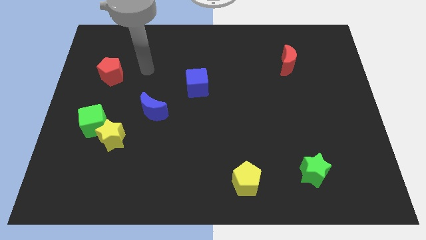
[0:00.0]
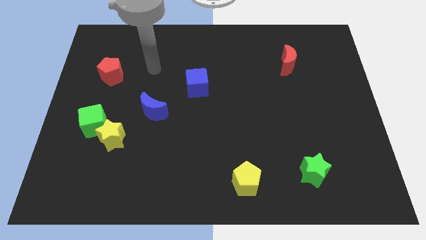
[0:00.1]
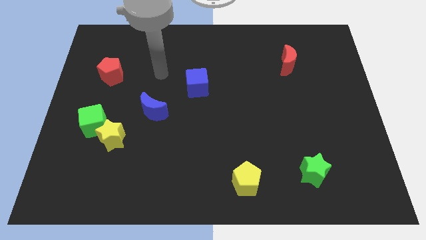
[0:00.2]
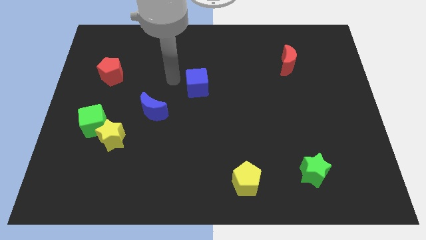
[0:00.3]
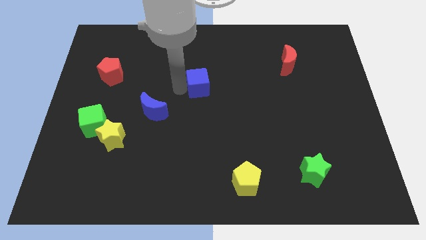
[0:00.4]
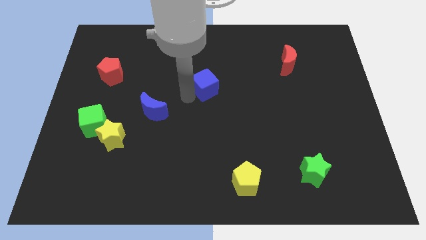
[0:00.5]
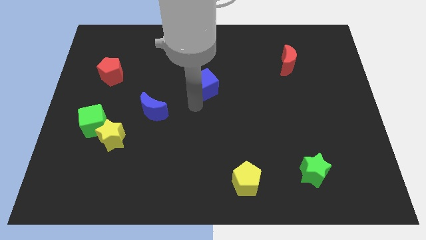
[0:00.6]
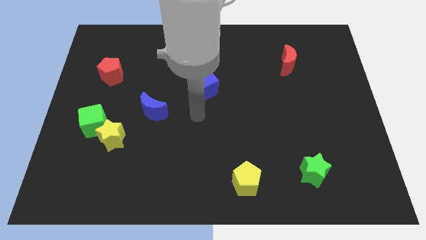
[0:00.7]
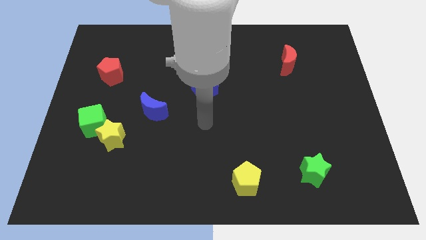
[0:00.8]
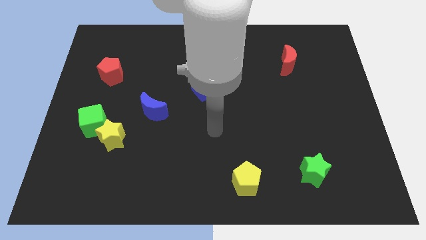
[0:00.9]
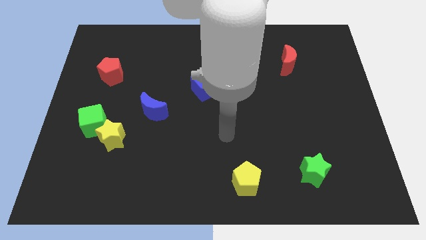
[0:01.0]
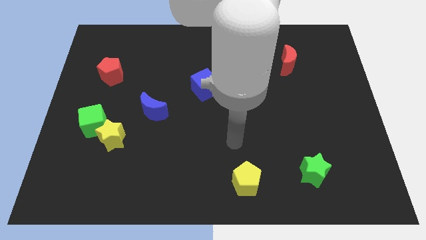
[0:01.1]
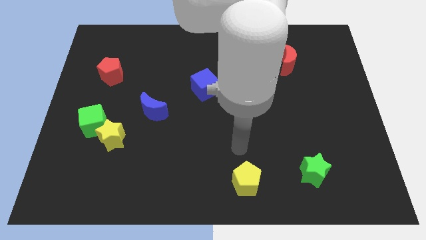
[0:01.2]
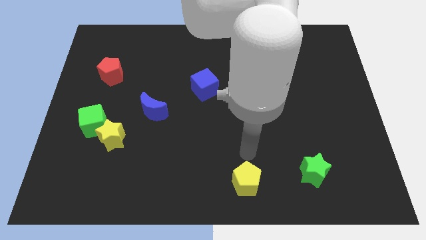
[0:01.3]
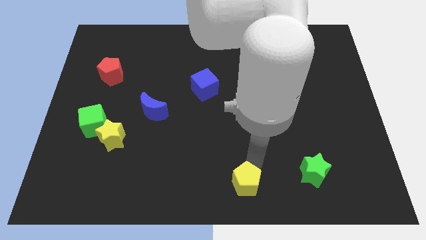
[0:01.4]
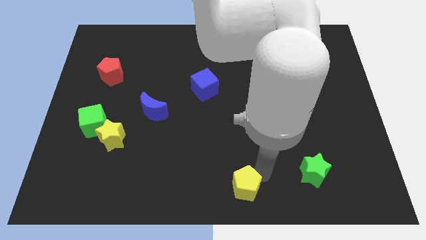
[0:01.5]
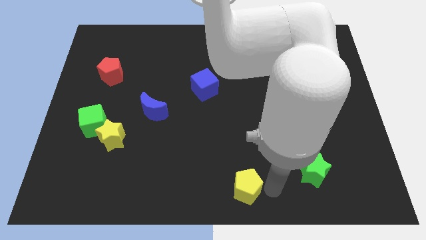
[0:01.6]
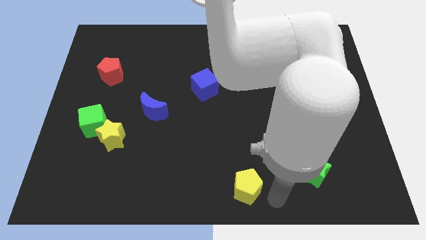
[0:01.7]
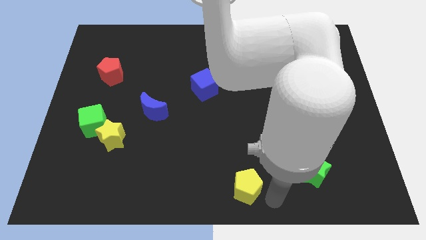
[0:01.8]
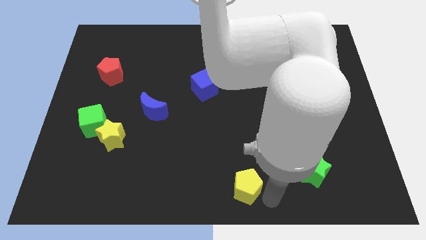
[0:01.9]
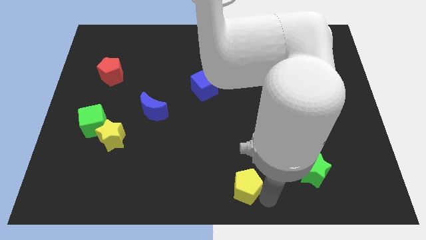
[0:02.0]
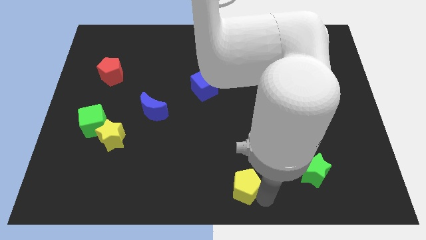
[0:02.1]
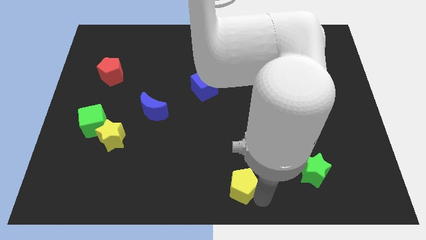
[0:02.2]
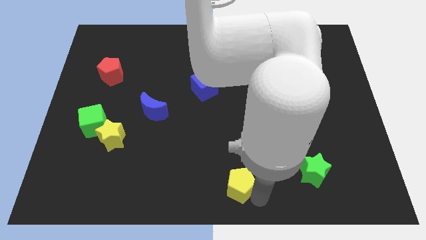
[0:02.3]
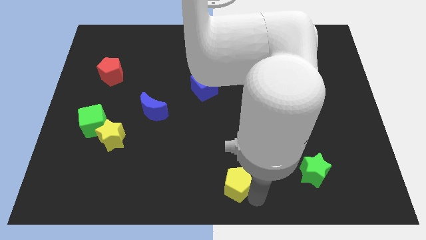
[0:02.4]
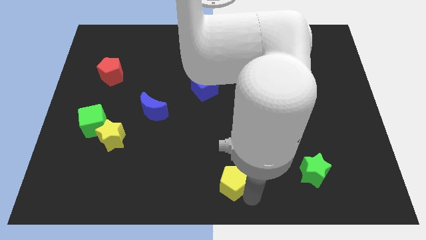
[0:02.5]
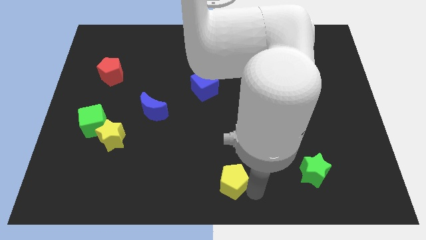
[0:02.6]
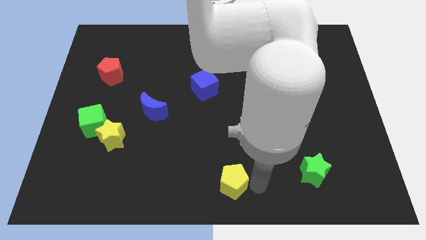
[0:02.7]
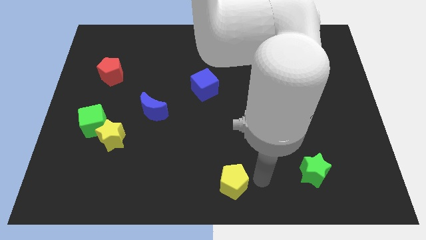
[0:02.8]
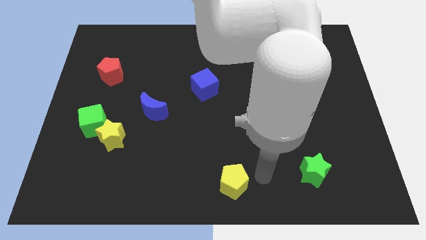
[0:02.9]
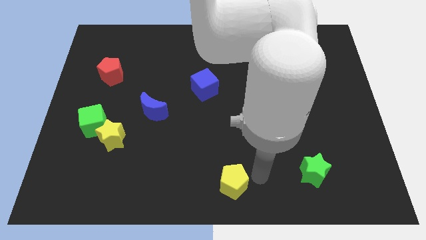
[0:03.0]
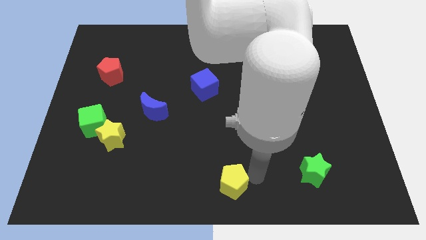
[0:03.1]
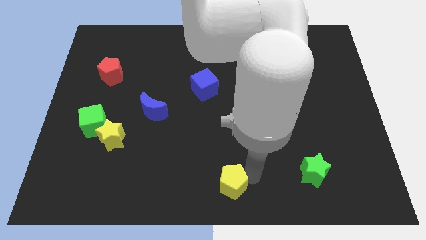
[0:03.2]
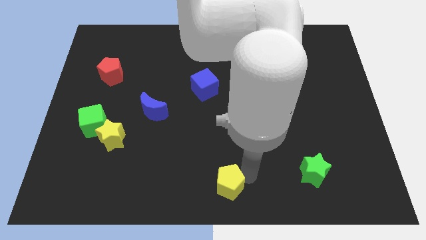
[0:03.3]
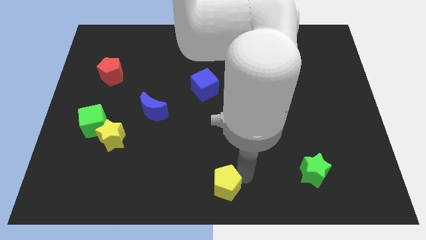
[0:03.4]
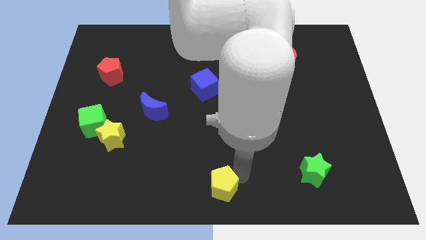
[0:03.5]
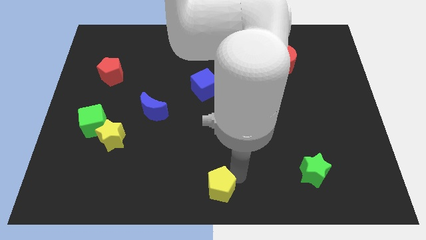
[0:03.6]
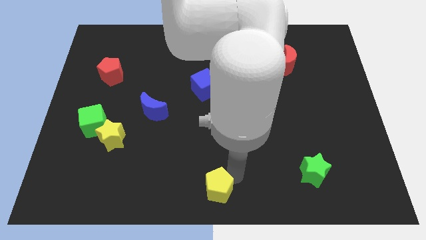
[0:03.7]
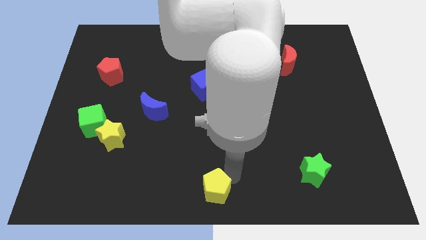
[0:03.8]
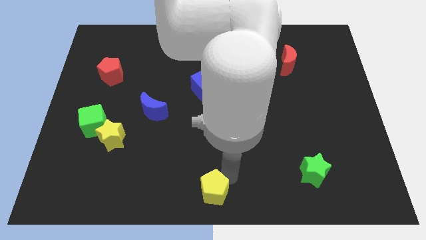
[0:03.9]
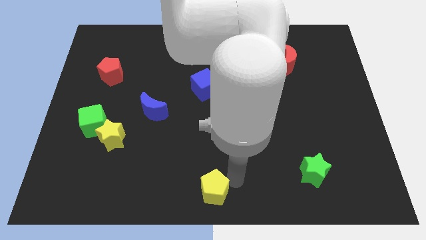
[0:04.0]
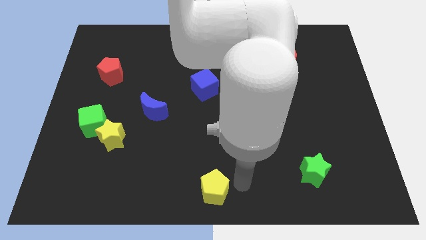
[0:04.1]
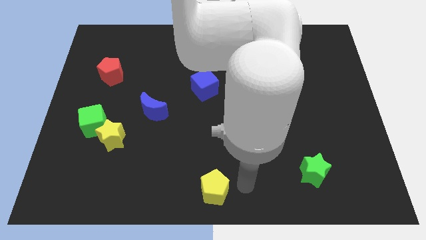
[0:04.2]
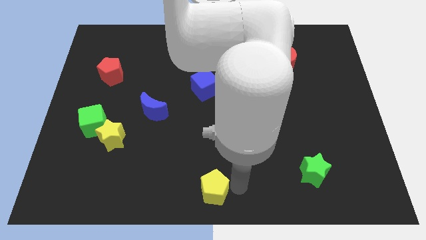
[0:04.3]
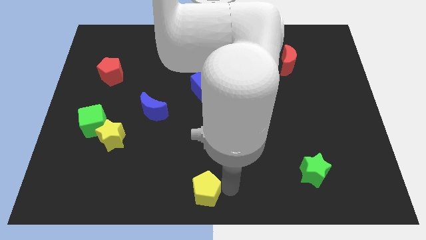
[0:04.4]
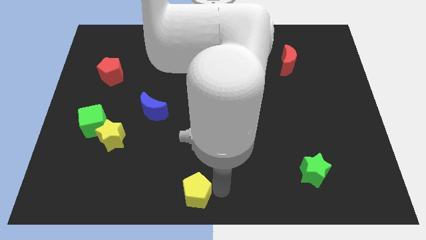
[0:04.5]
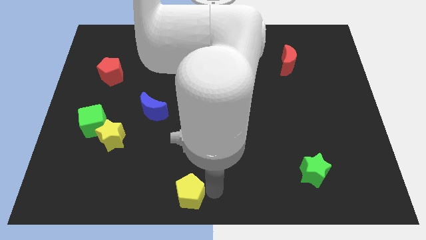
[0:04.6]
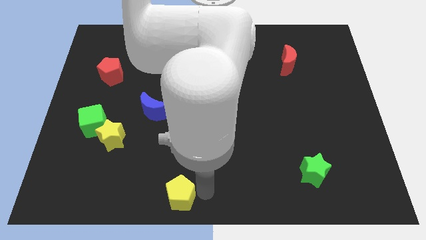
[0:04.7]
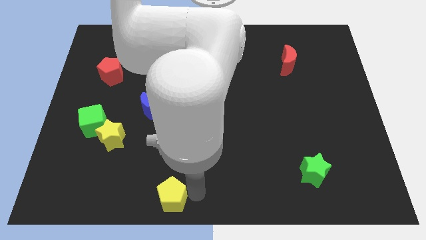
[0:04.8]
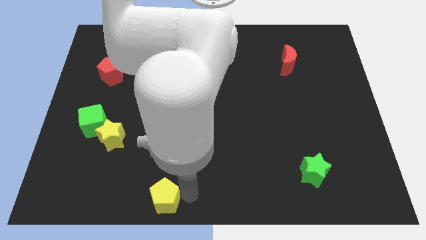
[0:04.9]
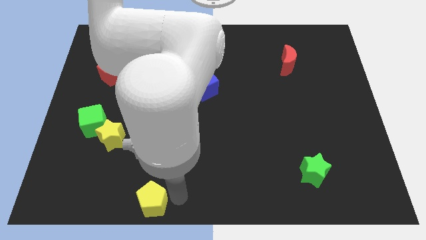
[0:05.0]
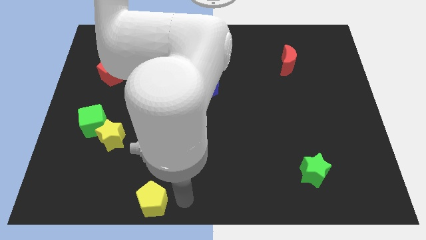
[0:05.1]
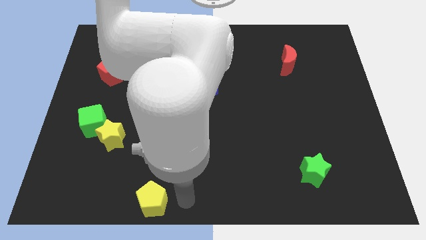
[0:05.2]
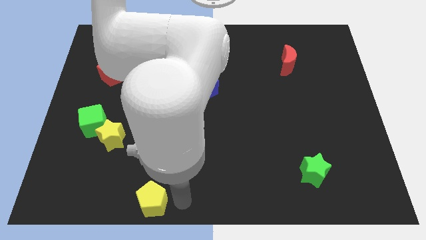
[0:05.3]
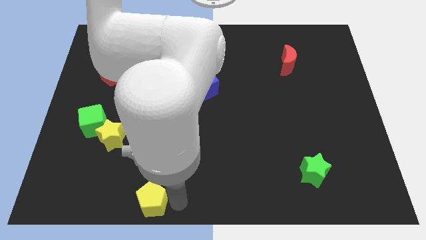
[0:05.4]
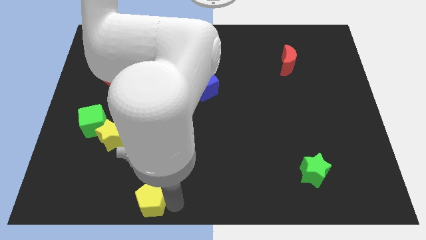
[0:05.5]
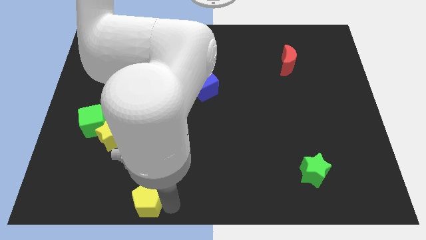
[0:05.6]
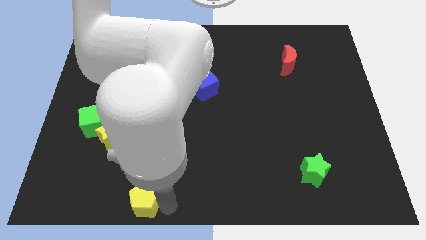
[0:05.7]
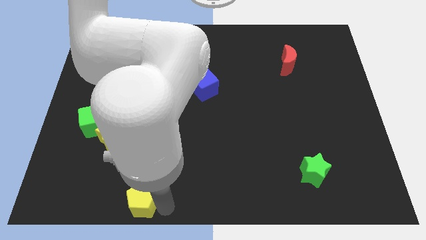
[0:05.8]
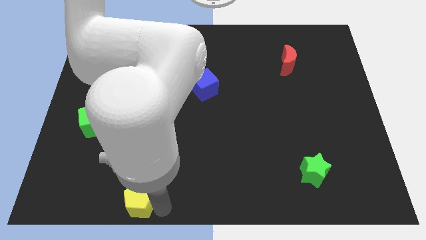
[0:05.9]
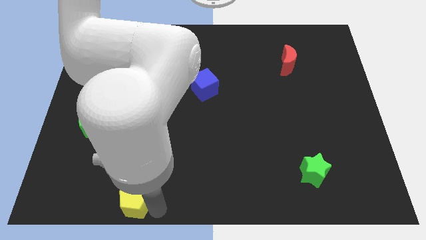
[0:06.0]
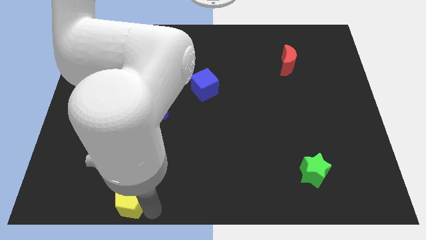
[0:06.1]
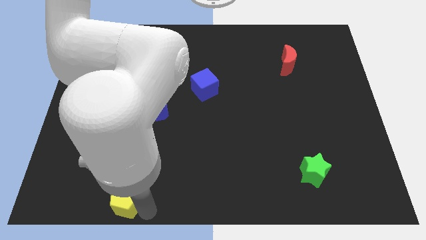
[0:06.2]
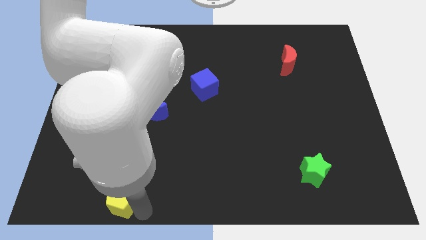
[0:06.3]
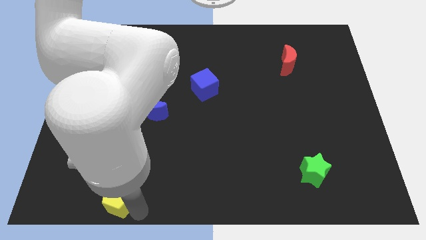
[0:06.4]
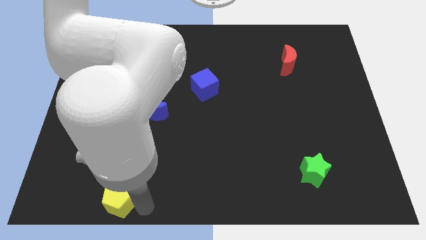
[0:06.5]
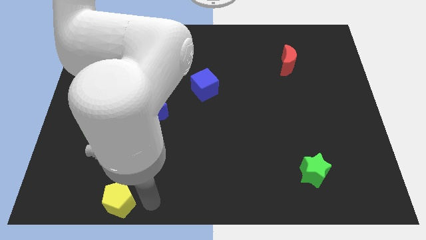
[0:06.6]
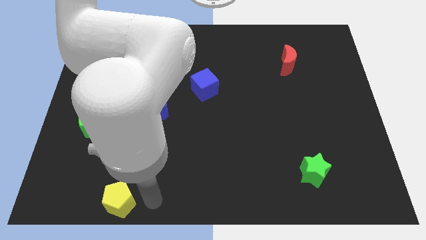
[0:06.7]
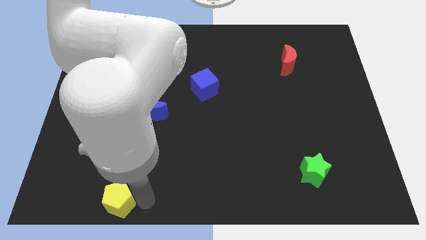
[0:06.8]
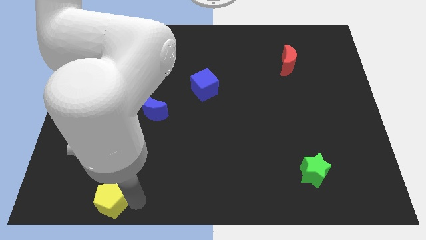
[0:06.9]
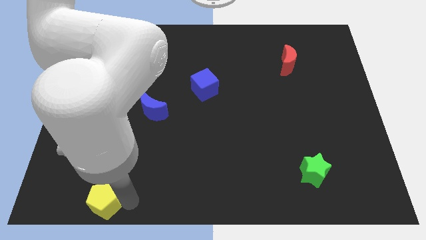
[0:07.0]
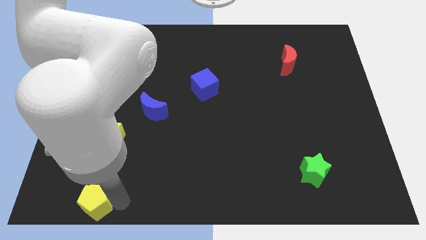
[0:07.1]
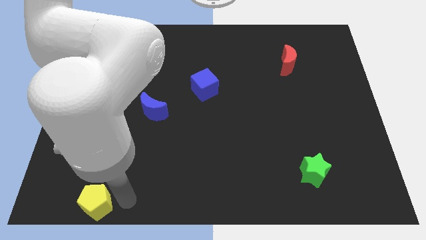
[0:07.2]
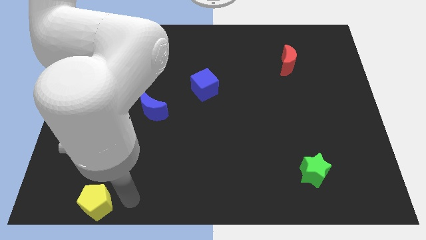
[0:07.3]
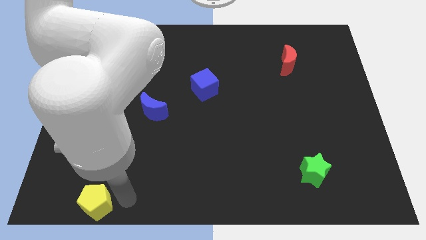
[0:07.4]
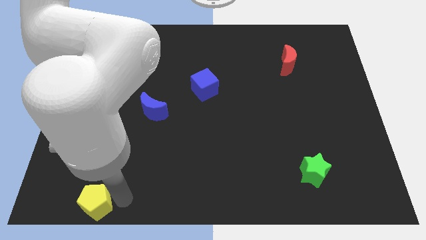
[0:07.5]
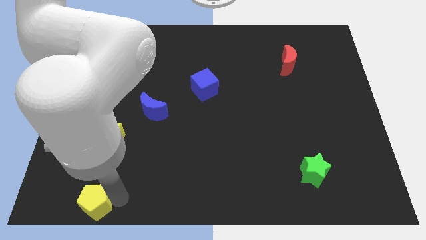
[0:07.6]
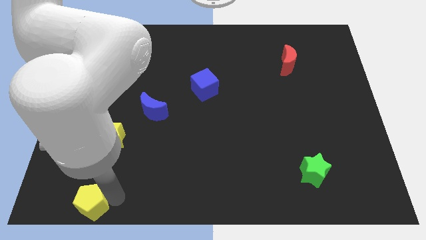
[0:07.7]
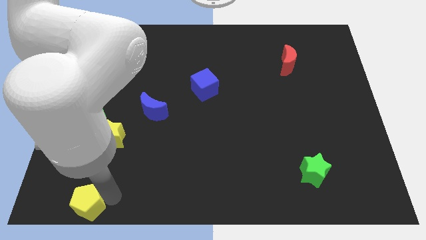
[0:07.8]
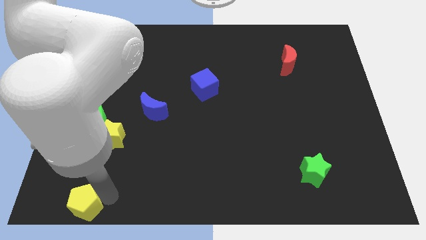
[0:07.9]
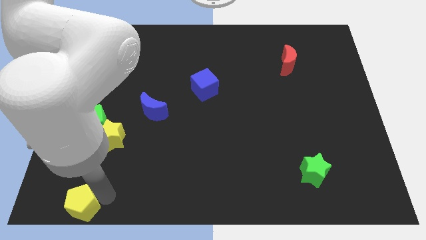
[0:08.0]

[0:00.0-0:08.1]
put the yellow pentagon to the lower left corner
